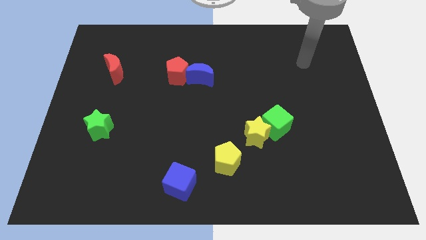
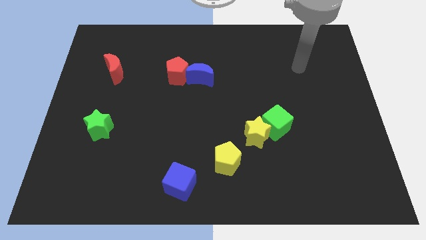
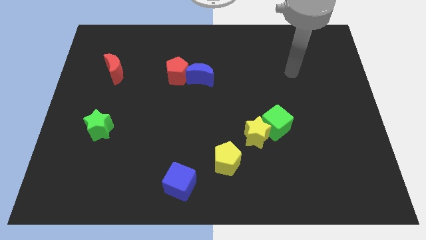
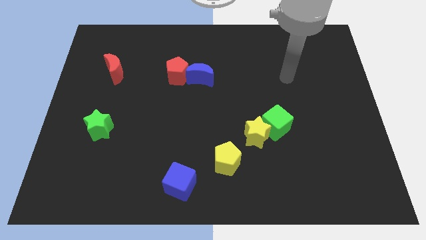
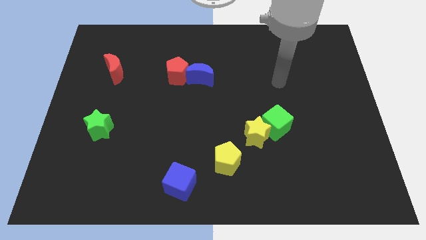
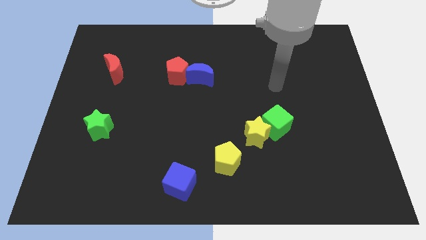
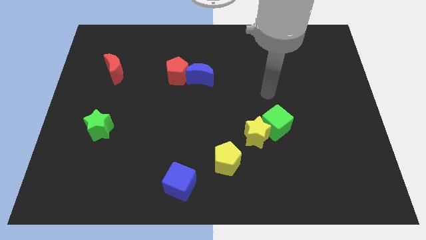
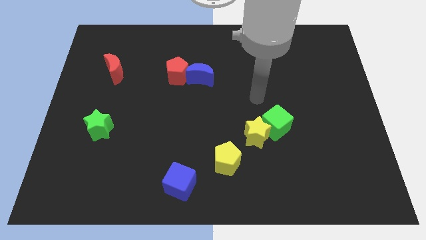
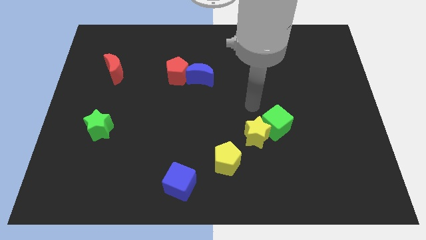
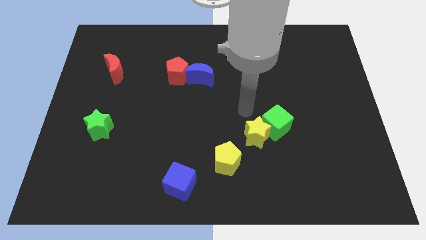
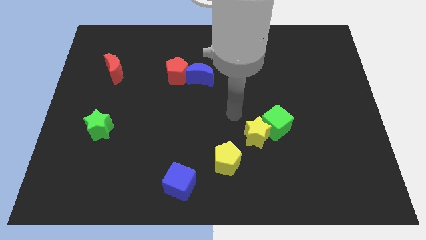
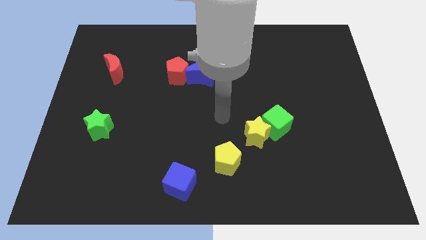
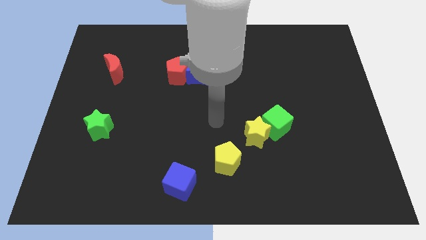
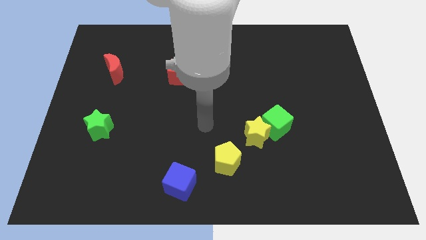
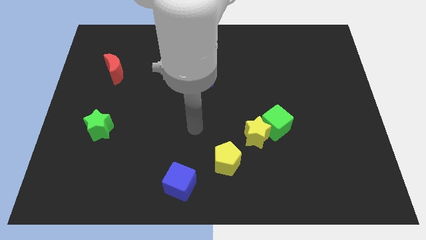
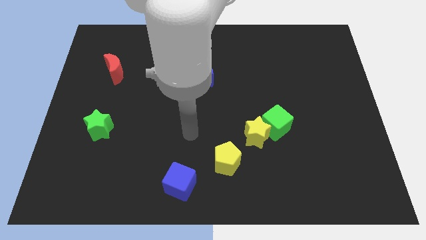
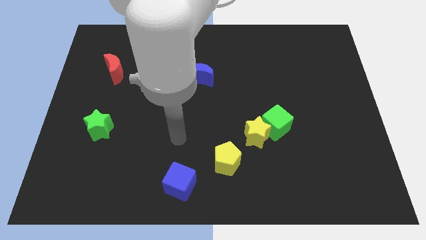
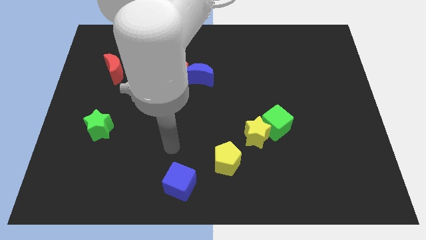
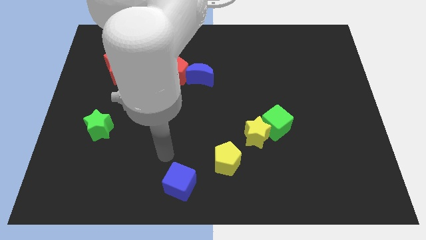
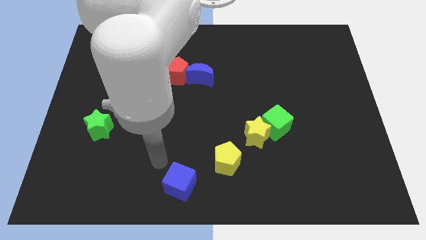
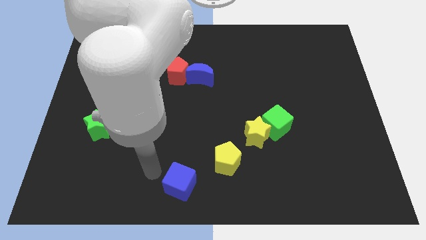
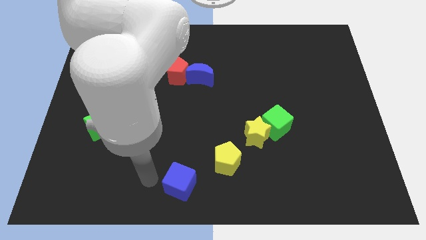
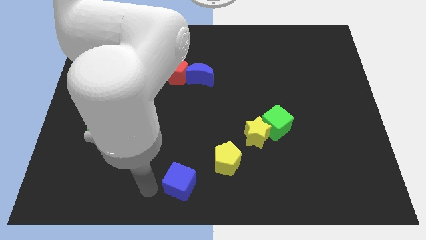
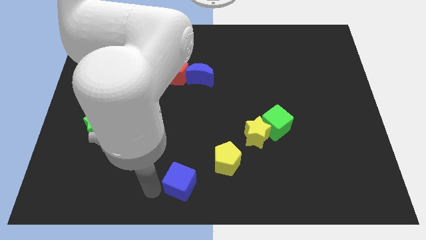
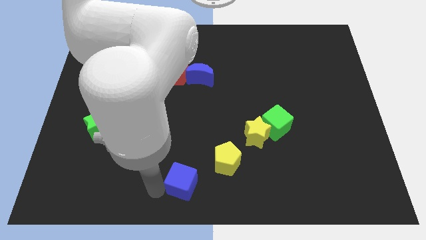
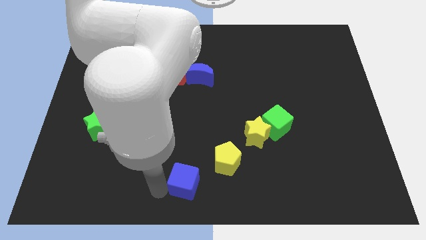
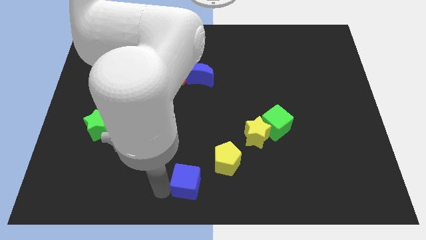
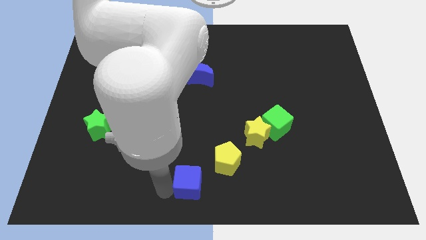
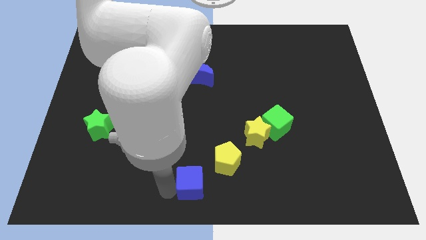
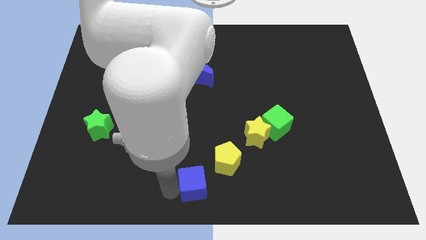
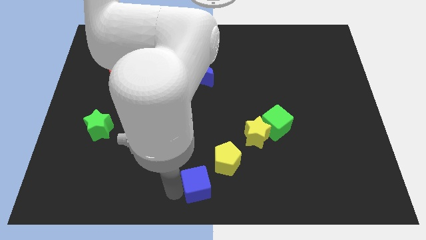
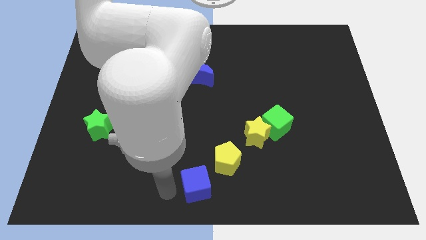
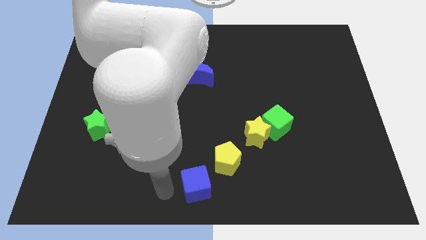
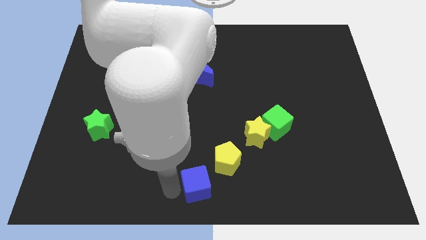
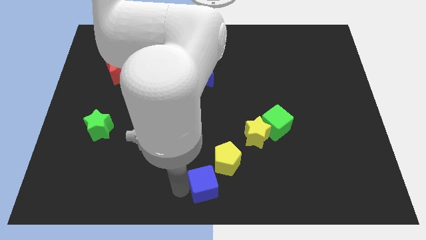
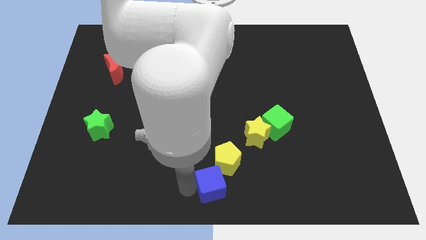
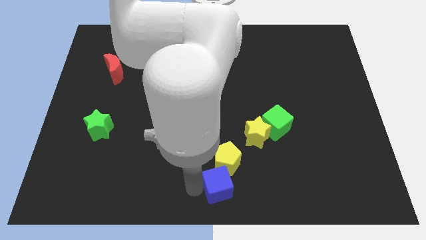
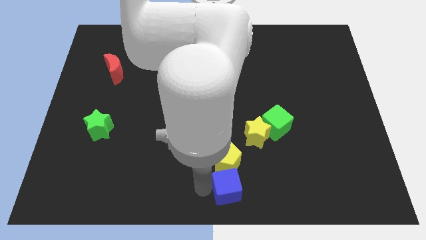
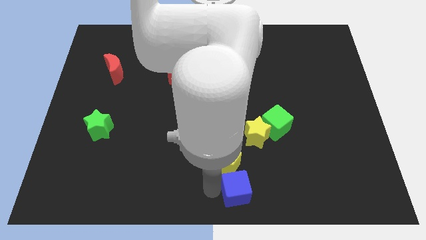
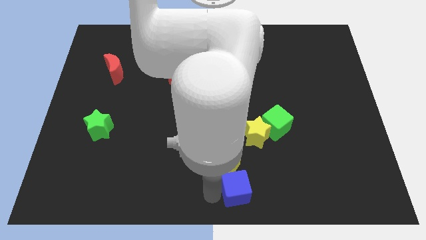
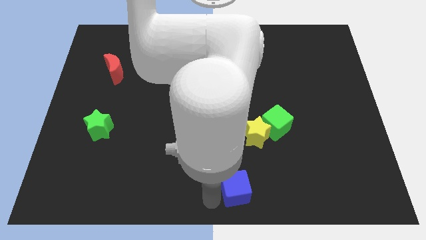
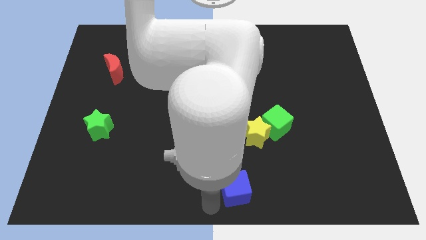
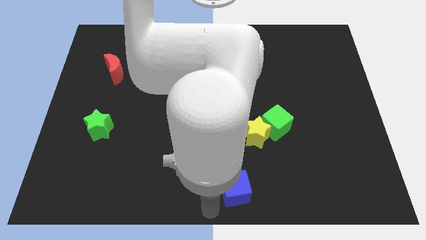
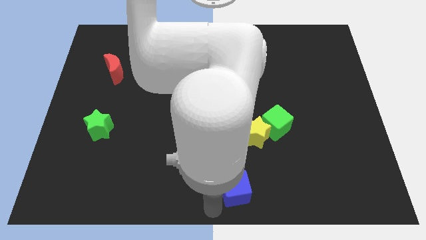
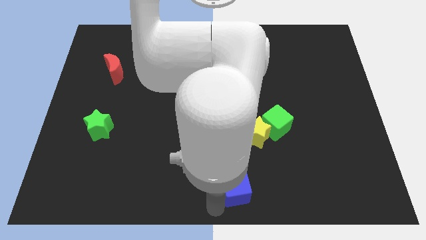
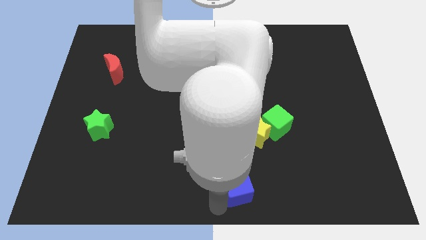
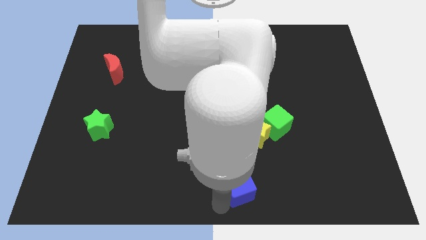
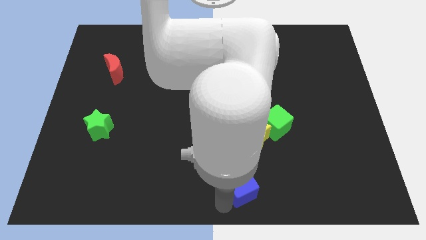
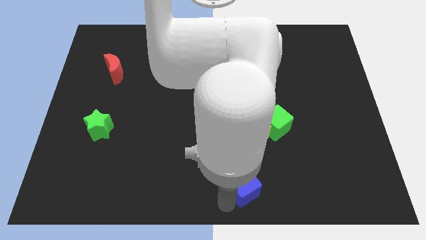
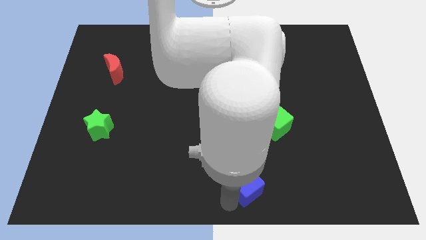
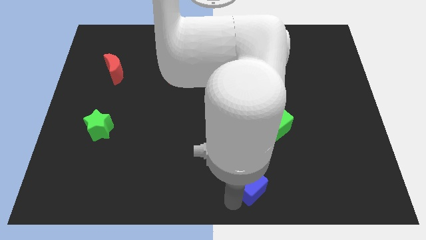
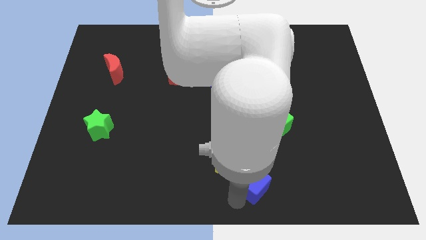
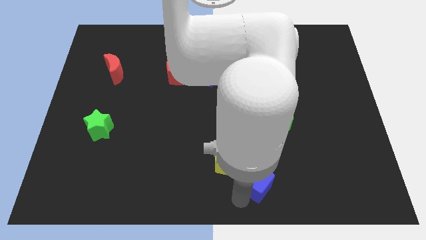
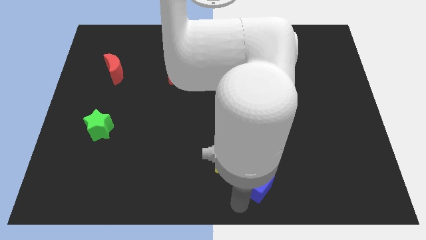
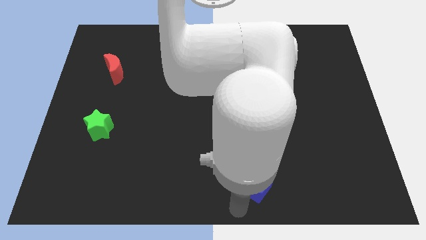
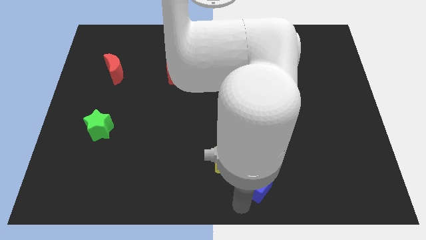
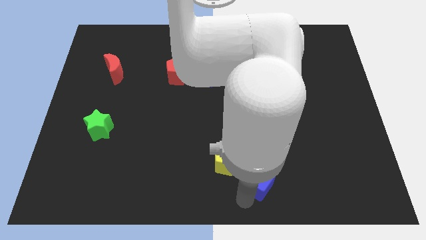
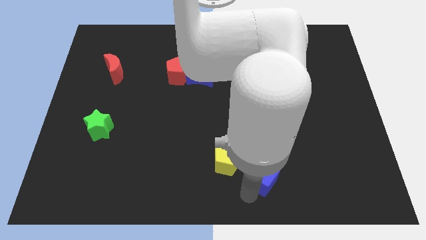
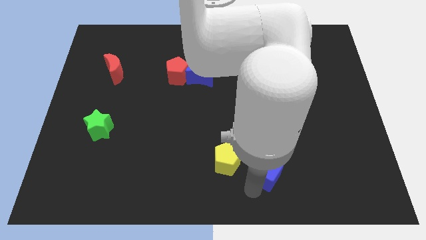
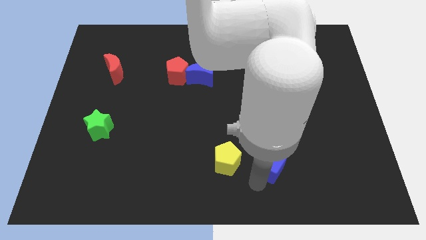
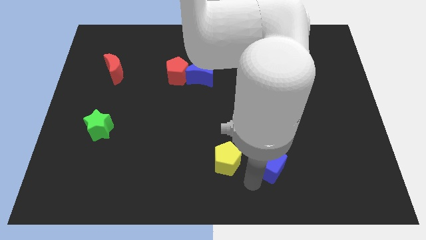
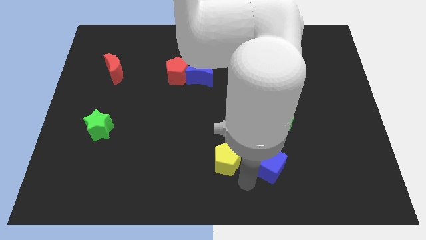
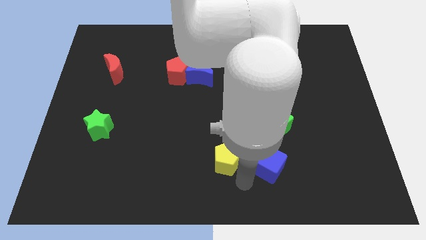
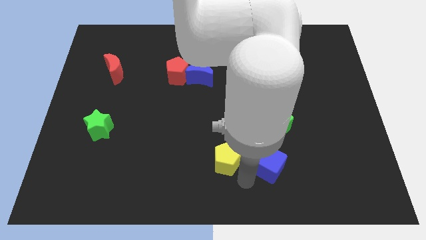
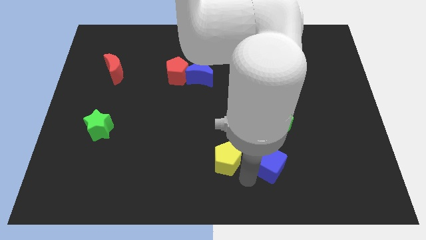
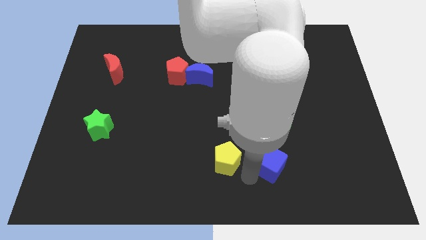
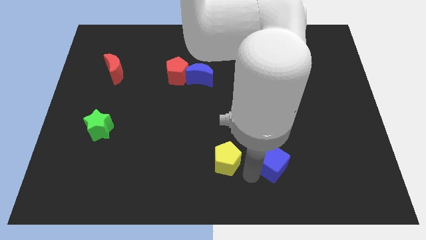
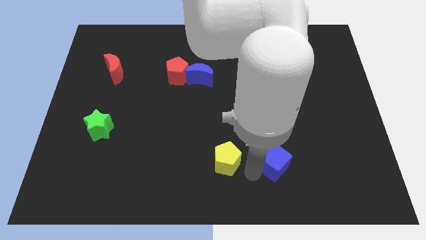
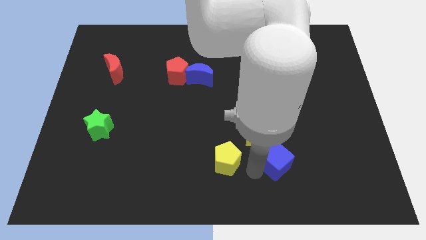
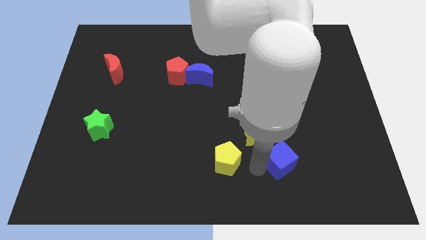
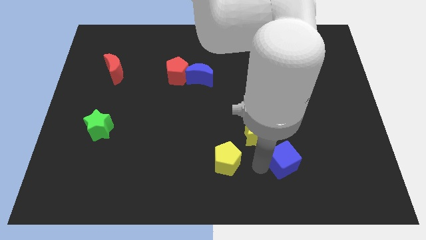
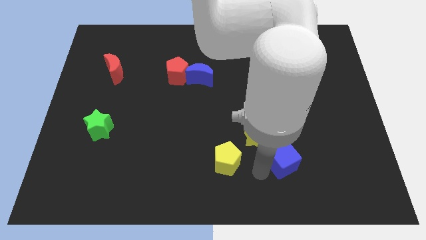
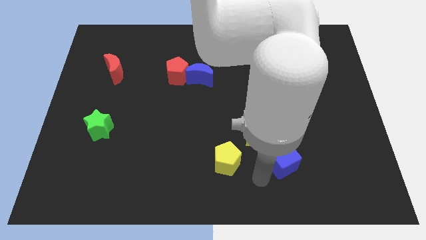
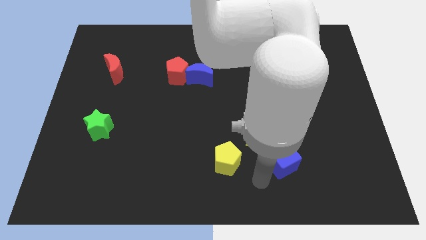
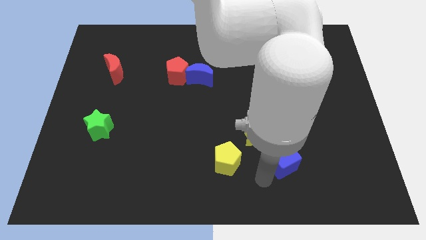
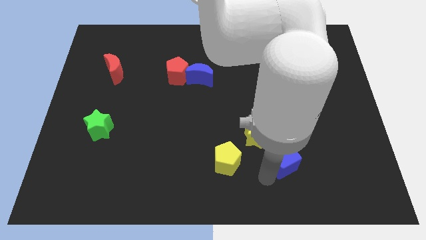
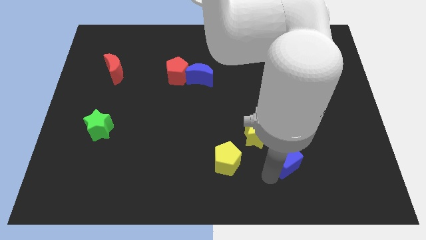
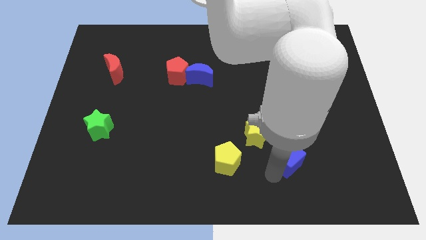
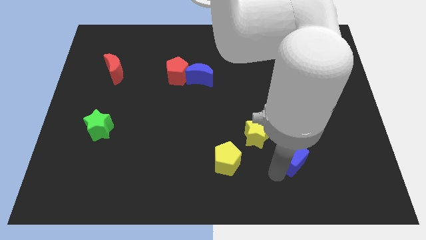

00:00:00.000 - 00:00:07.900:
put the blue cube to the bottom right of the green cube
